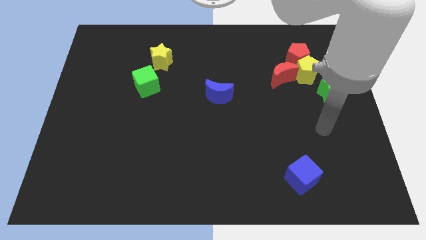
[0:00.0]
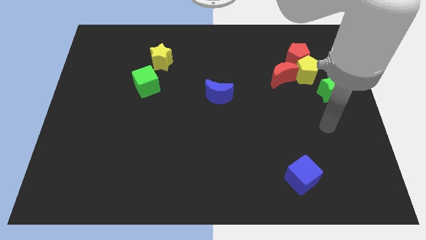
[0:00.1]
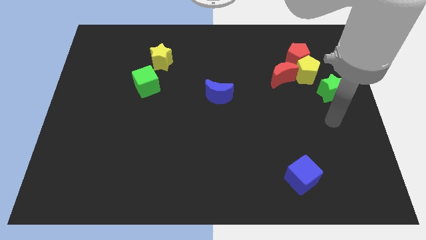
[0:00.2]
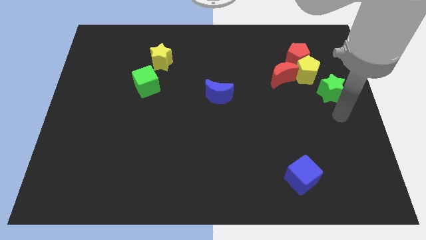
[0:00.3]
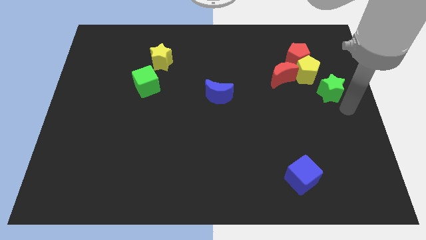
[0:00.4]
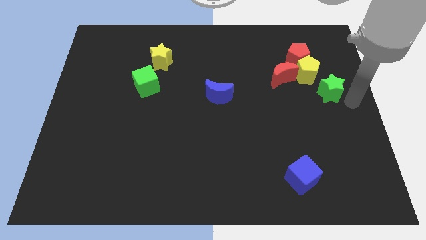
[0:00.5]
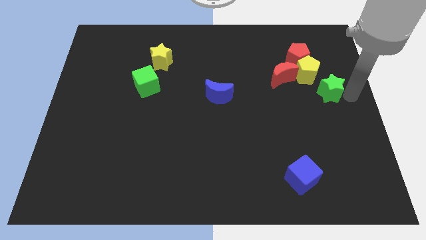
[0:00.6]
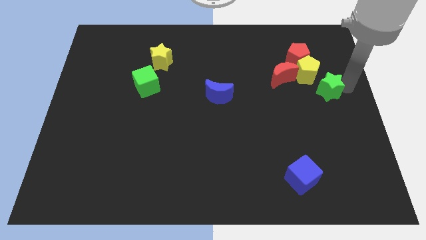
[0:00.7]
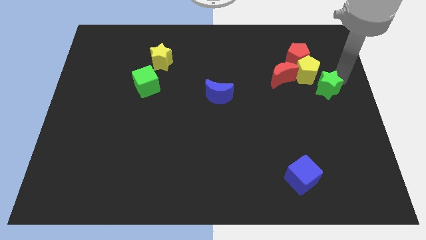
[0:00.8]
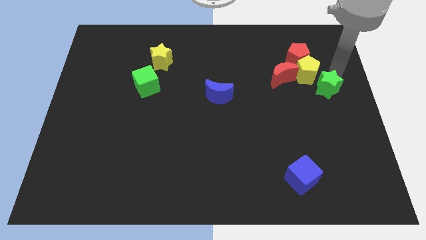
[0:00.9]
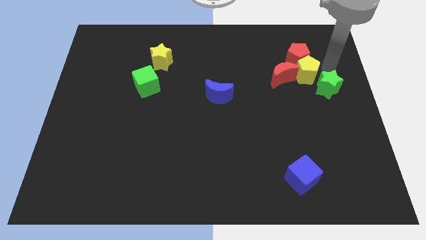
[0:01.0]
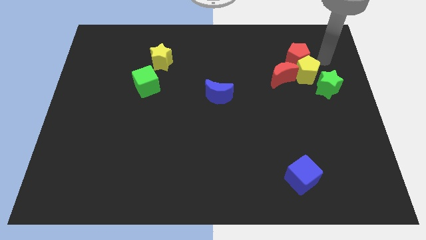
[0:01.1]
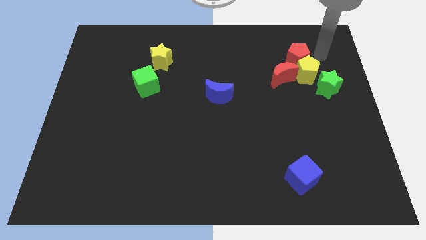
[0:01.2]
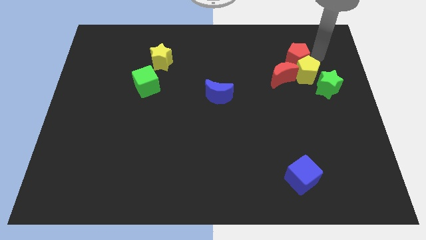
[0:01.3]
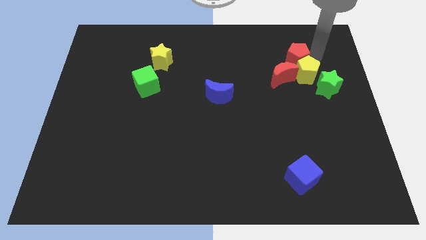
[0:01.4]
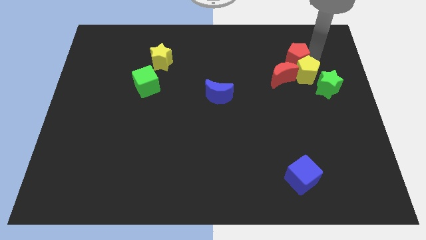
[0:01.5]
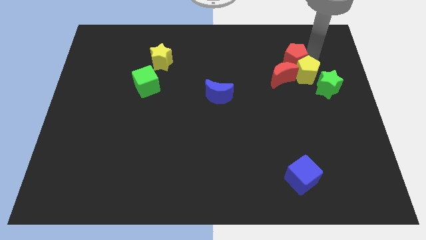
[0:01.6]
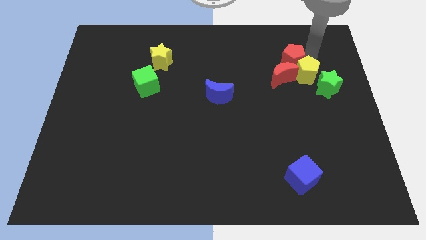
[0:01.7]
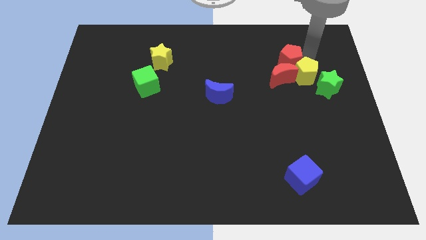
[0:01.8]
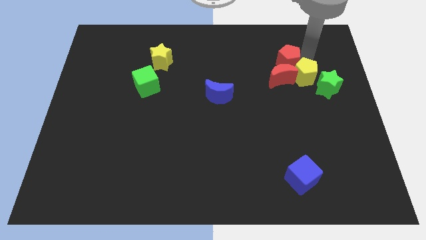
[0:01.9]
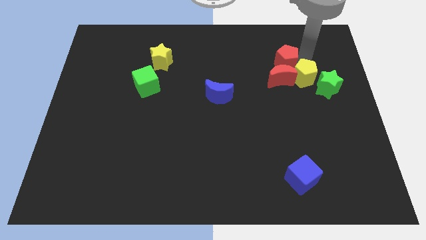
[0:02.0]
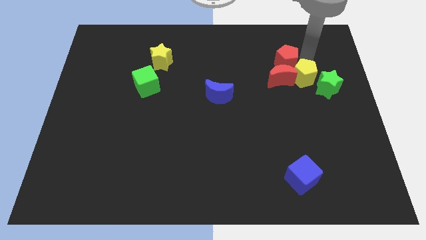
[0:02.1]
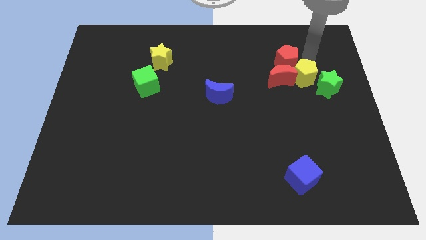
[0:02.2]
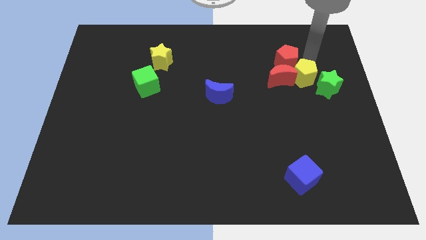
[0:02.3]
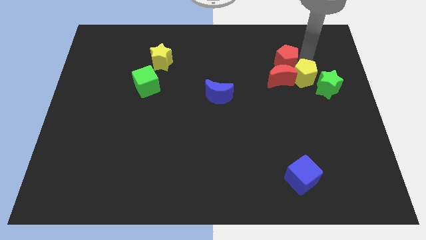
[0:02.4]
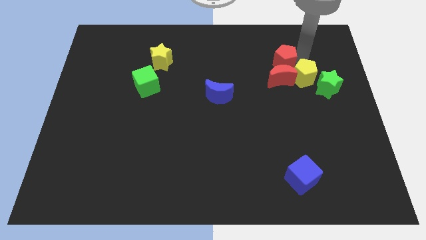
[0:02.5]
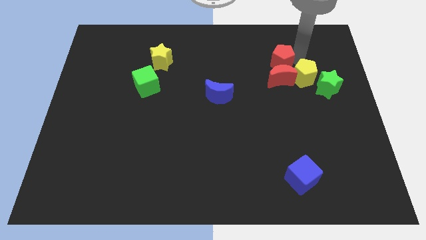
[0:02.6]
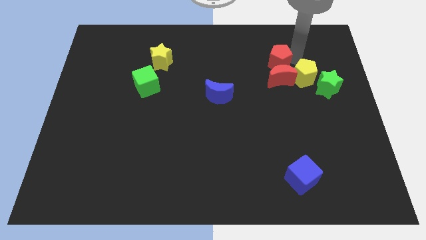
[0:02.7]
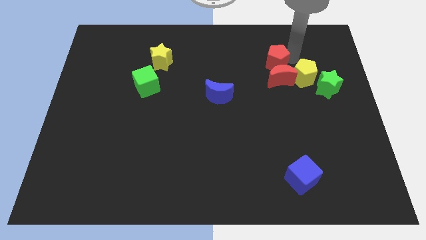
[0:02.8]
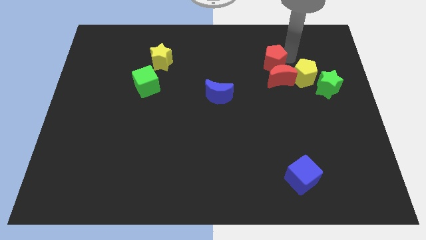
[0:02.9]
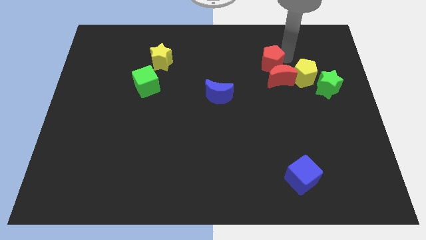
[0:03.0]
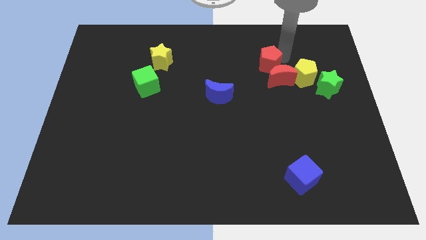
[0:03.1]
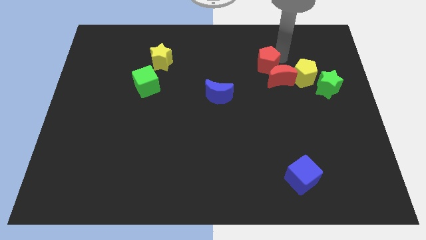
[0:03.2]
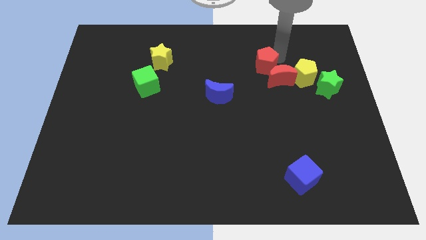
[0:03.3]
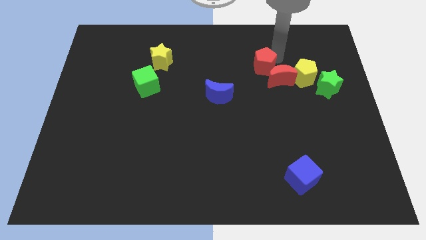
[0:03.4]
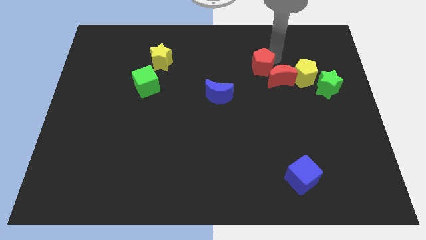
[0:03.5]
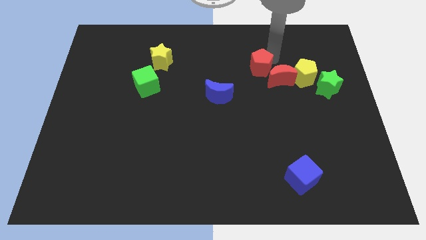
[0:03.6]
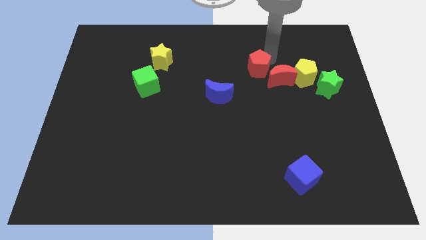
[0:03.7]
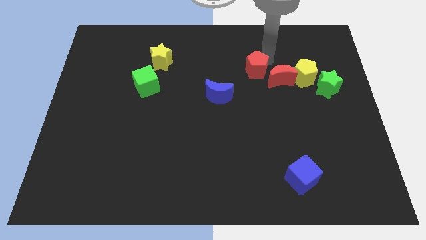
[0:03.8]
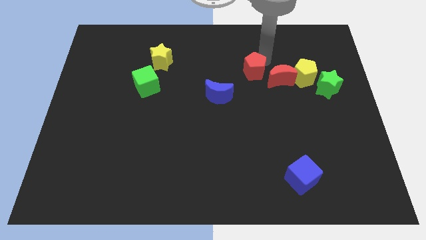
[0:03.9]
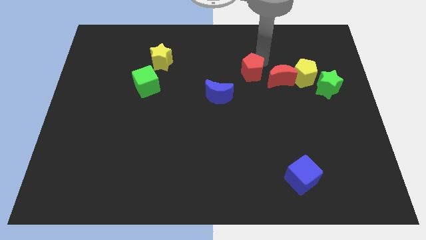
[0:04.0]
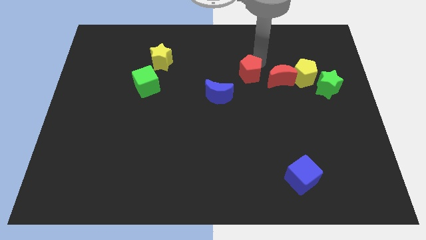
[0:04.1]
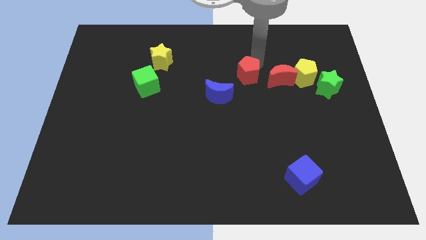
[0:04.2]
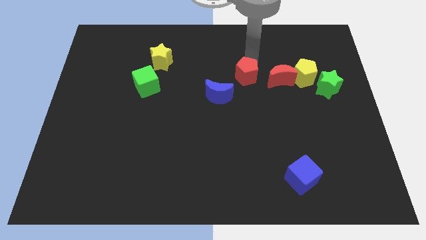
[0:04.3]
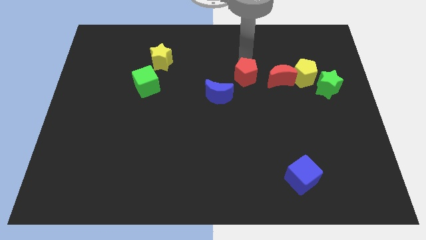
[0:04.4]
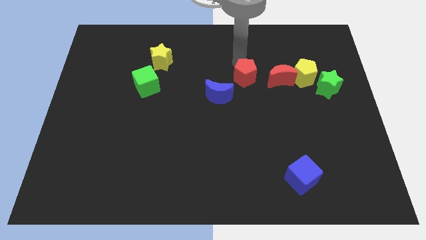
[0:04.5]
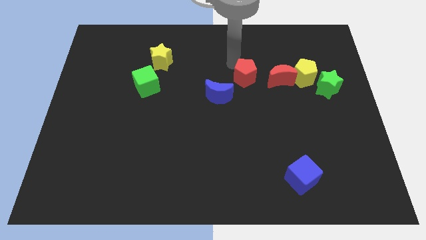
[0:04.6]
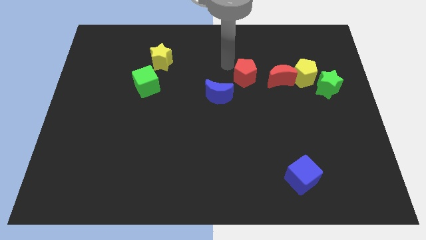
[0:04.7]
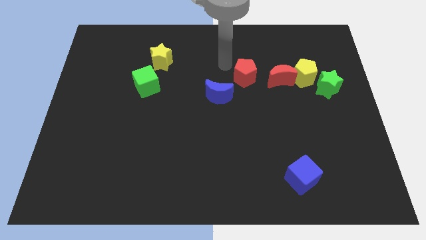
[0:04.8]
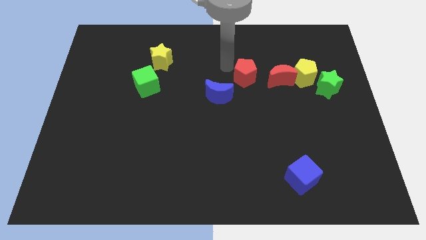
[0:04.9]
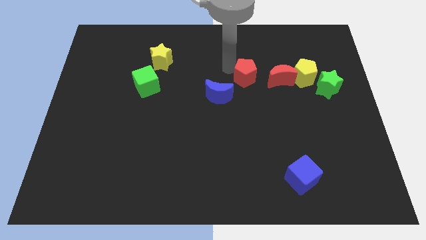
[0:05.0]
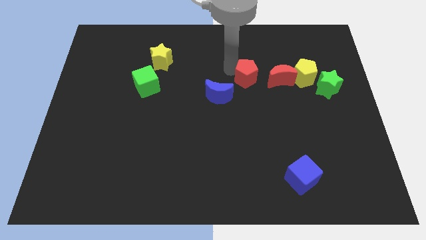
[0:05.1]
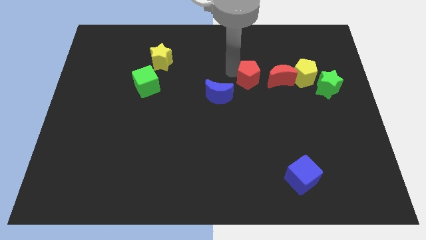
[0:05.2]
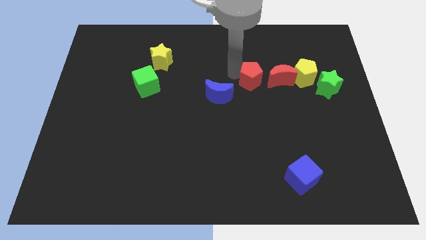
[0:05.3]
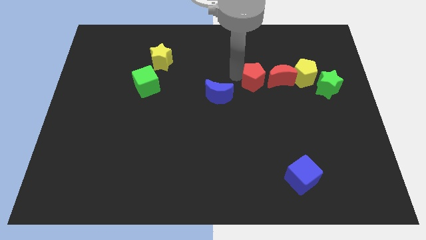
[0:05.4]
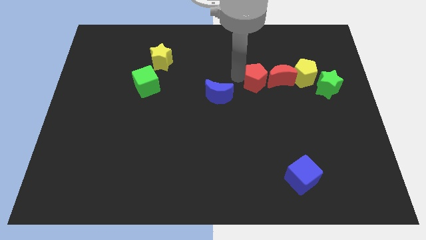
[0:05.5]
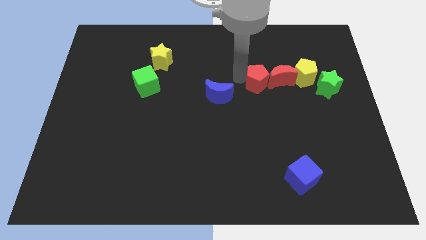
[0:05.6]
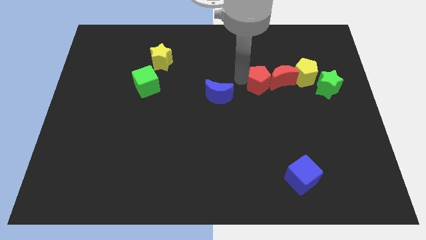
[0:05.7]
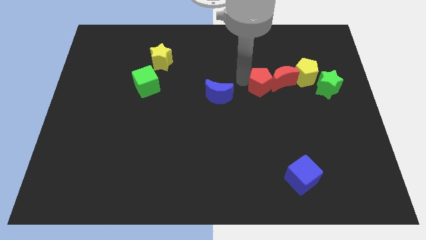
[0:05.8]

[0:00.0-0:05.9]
move the red pentagon left of the green star

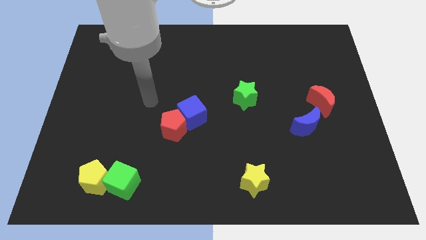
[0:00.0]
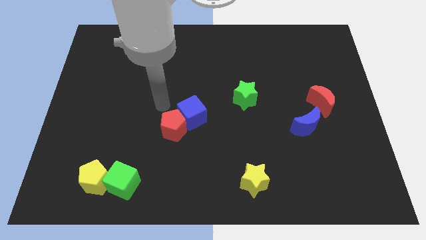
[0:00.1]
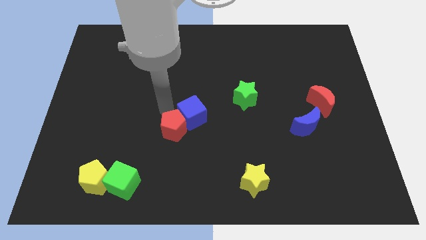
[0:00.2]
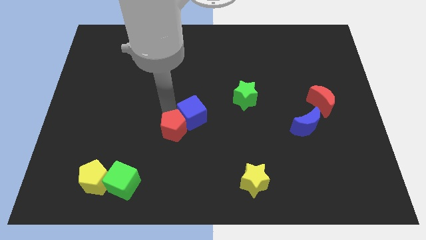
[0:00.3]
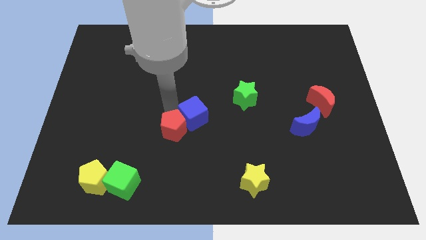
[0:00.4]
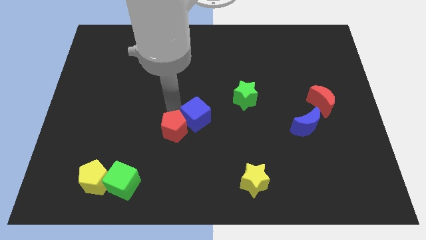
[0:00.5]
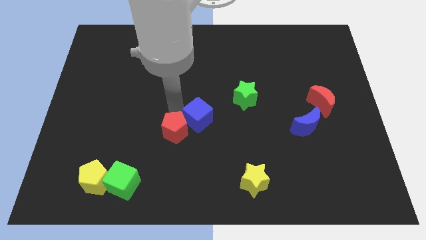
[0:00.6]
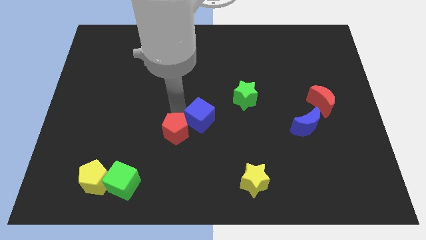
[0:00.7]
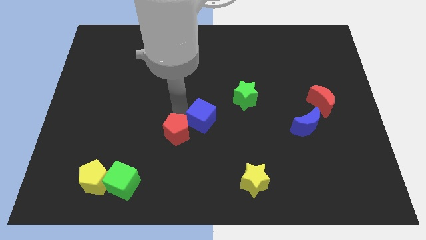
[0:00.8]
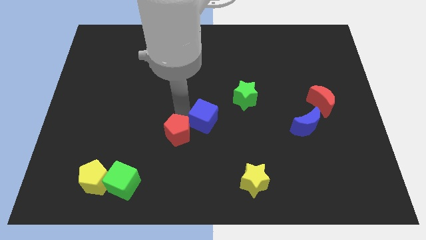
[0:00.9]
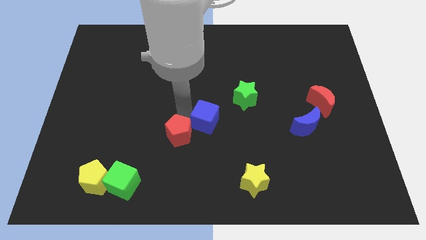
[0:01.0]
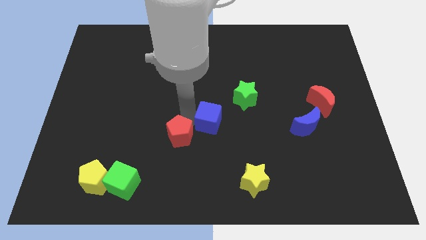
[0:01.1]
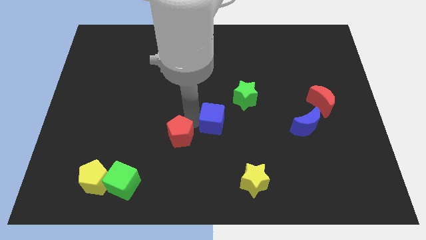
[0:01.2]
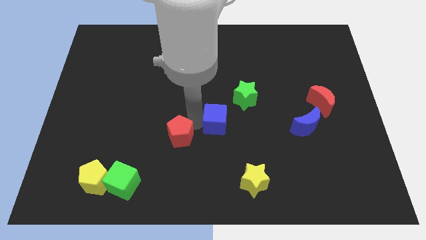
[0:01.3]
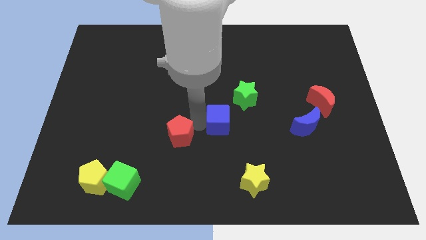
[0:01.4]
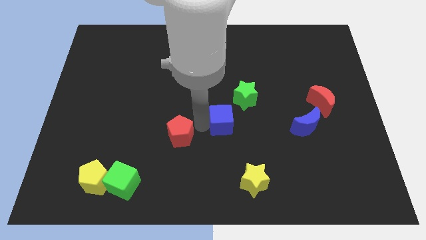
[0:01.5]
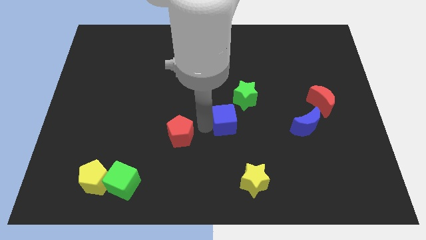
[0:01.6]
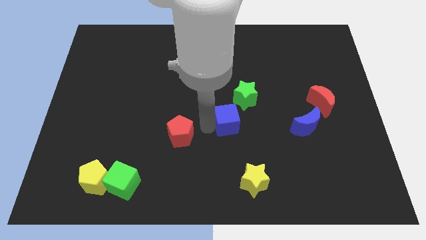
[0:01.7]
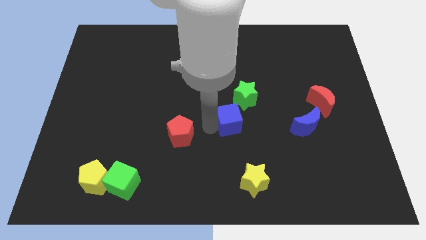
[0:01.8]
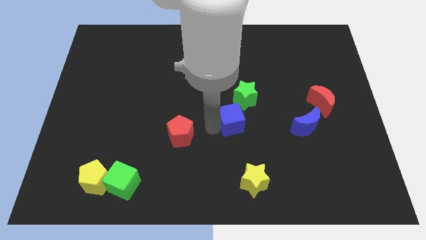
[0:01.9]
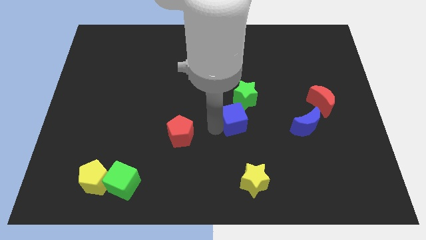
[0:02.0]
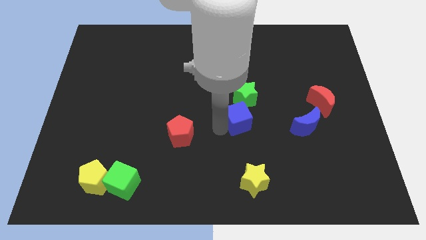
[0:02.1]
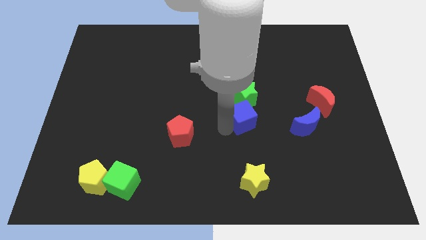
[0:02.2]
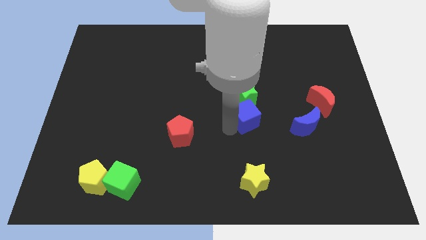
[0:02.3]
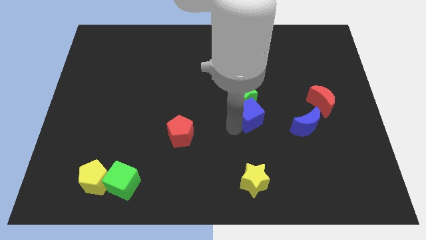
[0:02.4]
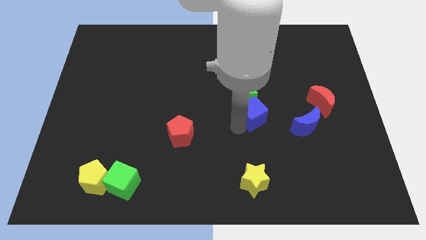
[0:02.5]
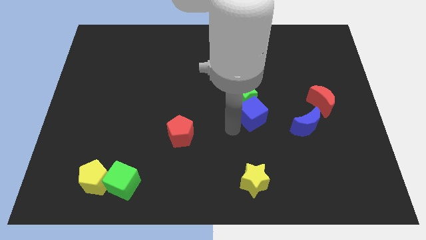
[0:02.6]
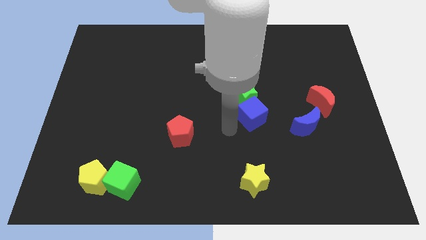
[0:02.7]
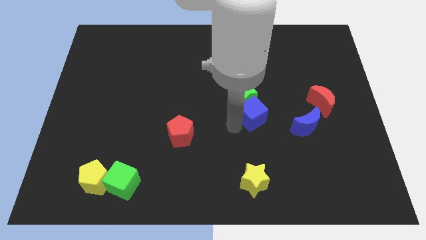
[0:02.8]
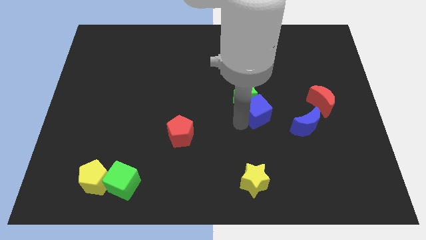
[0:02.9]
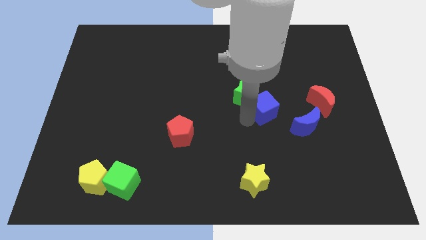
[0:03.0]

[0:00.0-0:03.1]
slide the blue cube to the left of the red moon
